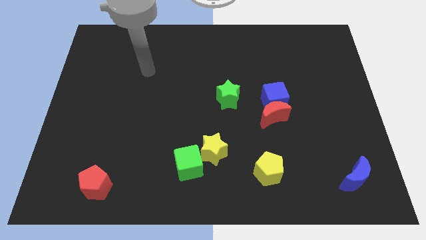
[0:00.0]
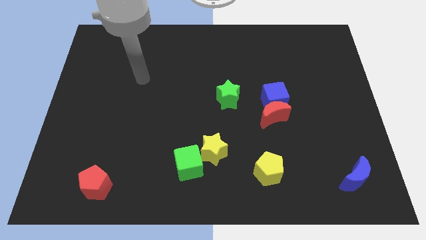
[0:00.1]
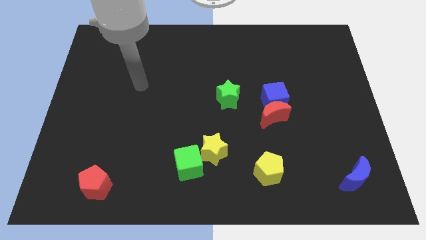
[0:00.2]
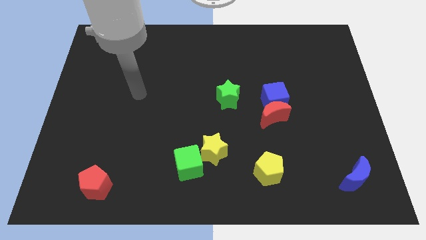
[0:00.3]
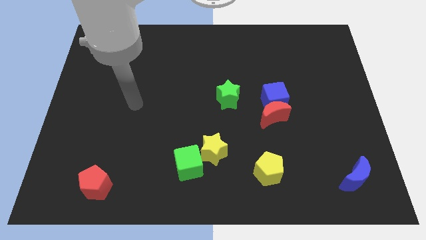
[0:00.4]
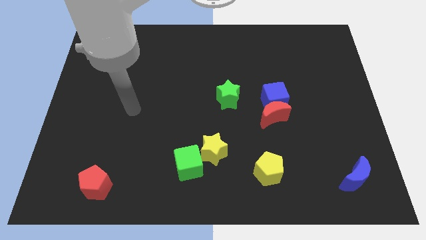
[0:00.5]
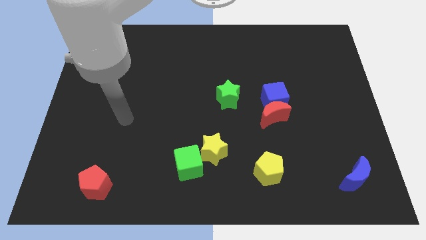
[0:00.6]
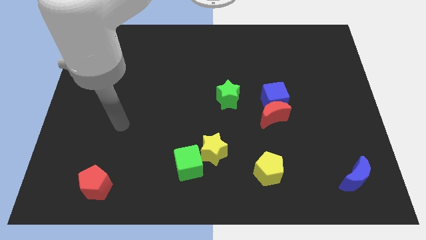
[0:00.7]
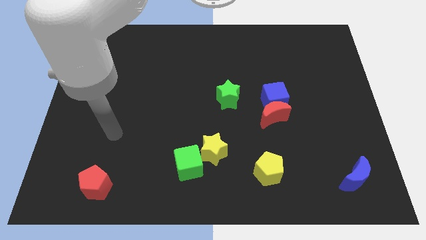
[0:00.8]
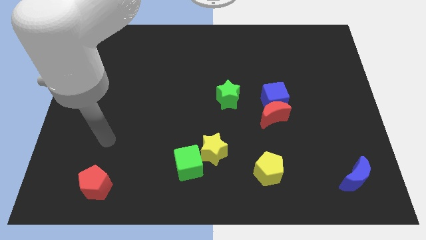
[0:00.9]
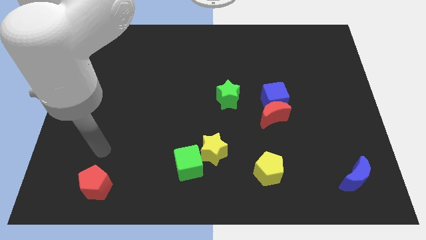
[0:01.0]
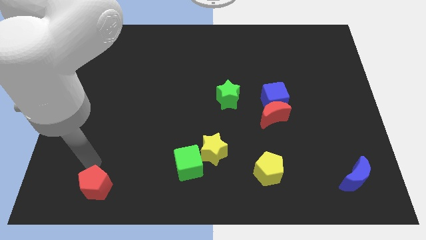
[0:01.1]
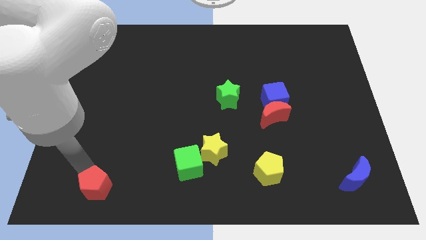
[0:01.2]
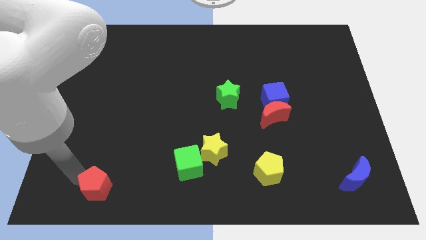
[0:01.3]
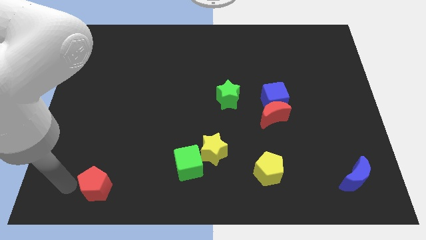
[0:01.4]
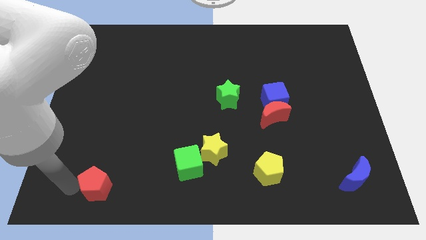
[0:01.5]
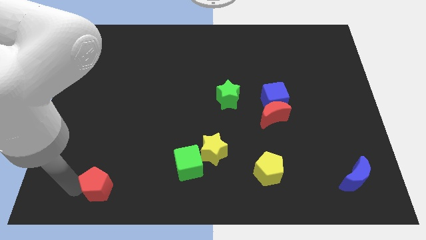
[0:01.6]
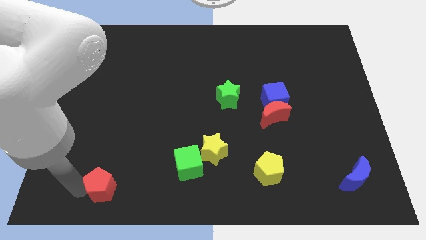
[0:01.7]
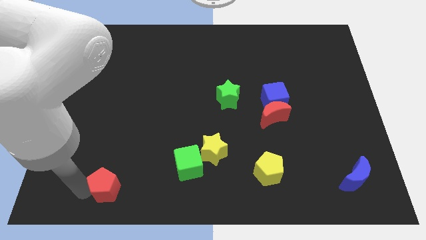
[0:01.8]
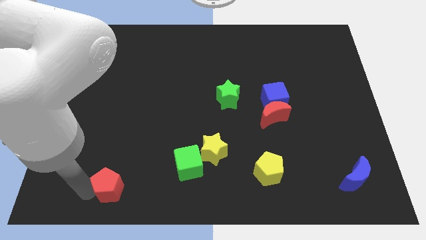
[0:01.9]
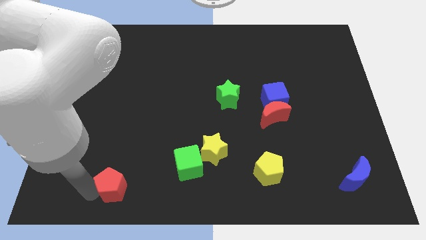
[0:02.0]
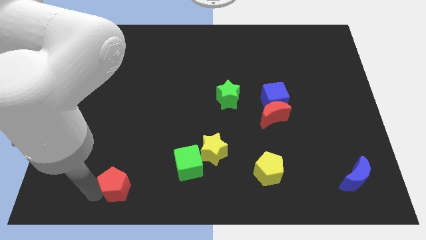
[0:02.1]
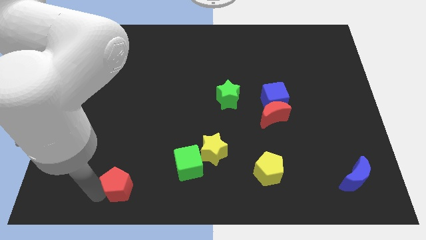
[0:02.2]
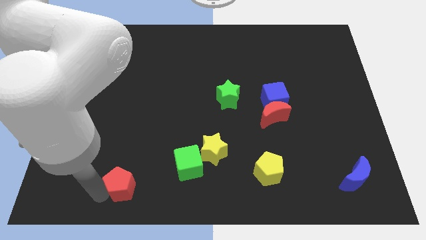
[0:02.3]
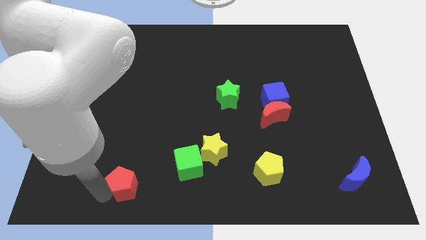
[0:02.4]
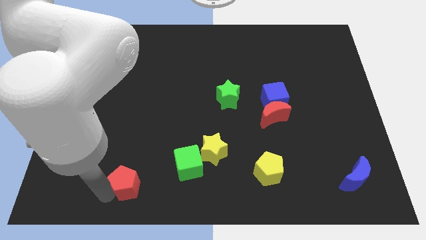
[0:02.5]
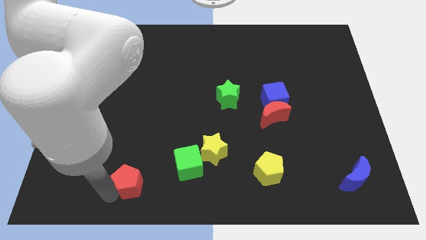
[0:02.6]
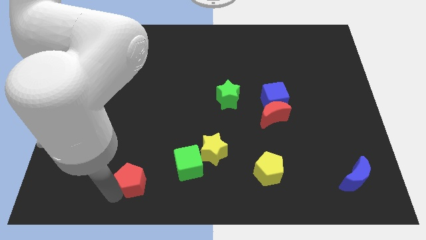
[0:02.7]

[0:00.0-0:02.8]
push the red pentagon right slightly

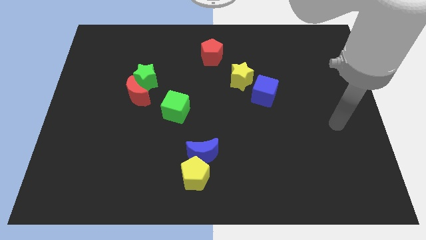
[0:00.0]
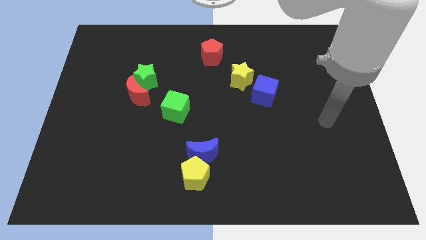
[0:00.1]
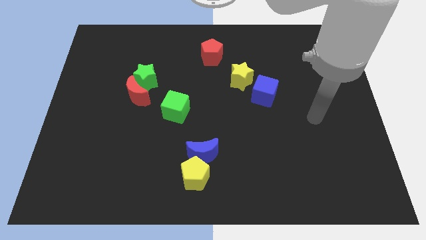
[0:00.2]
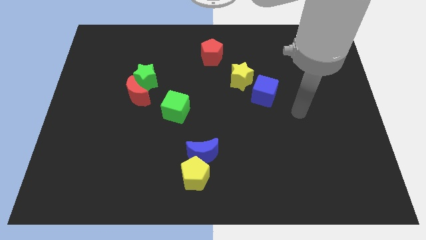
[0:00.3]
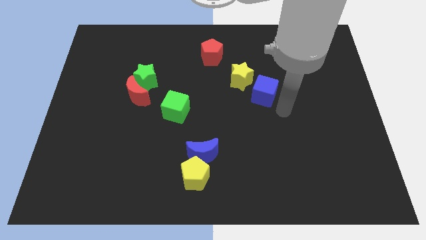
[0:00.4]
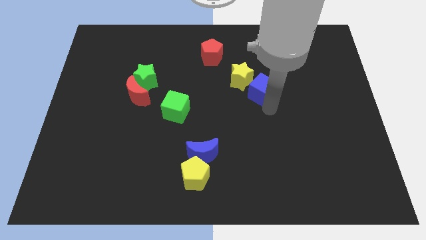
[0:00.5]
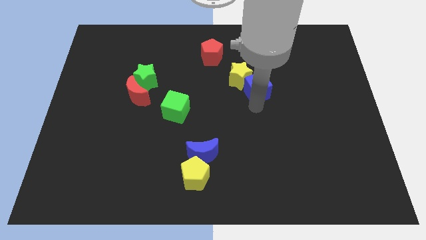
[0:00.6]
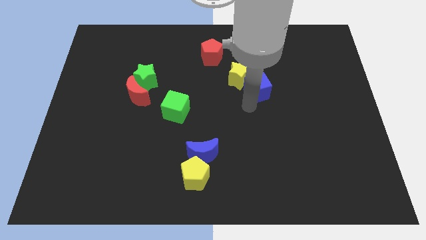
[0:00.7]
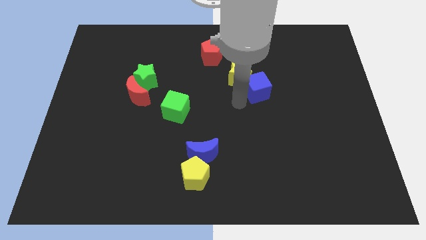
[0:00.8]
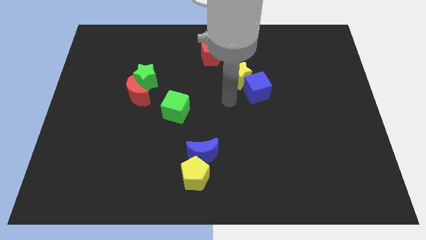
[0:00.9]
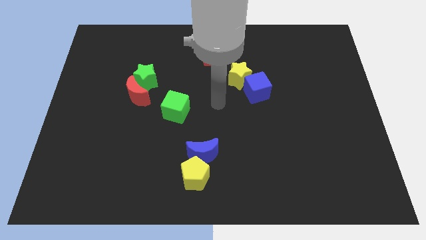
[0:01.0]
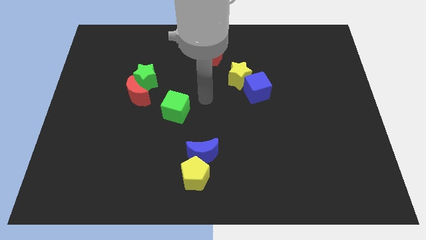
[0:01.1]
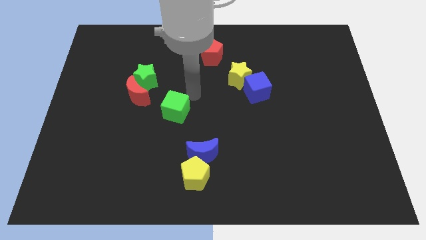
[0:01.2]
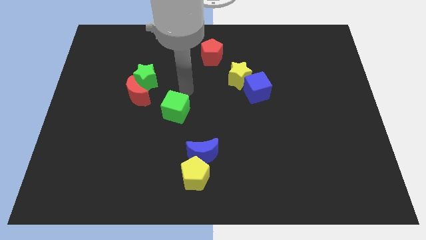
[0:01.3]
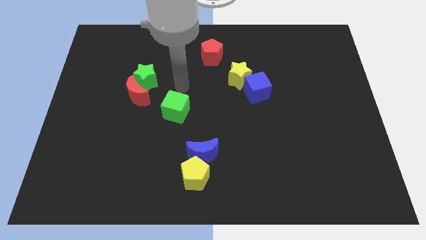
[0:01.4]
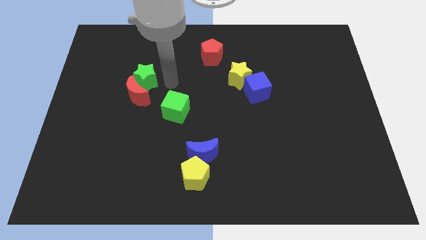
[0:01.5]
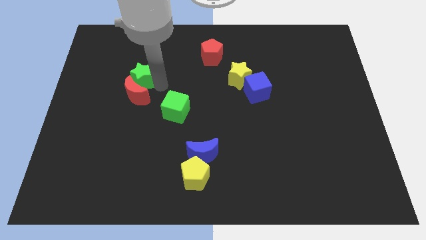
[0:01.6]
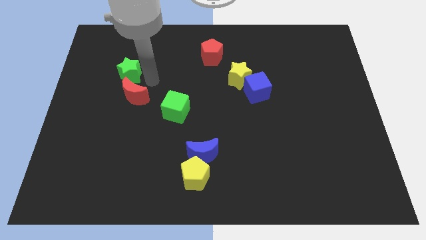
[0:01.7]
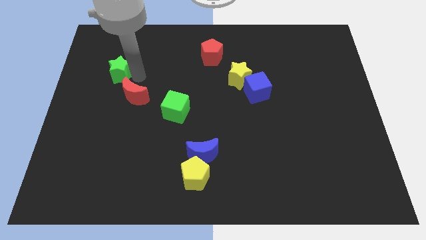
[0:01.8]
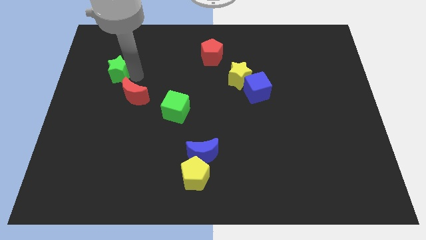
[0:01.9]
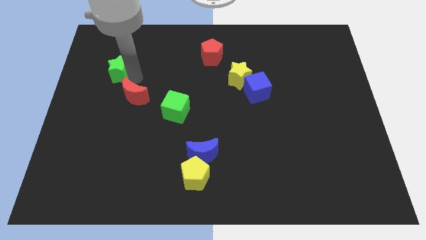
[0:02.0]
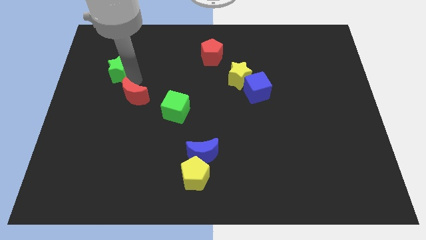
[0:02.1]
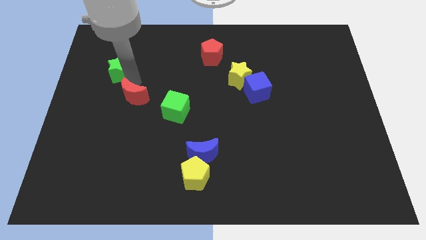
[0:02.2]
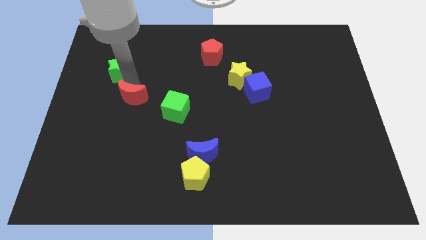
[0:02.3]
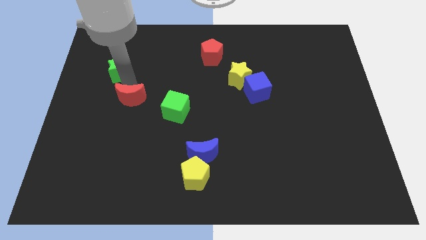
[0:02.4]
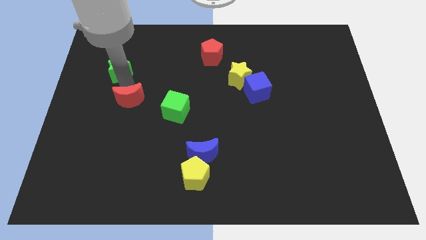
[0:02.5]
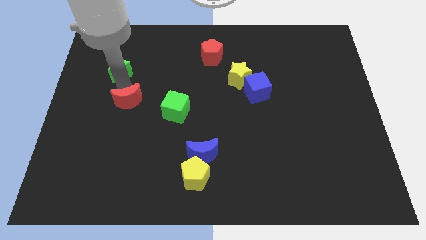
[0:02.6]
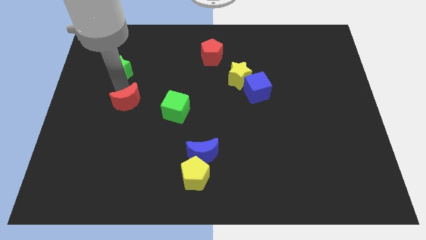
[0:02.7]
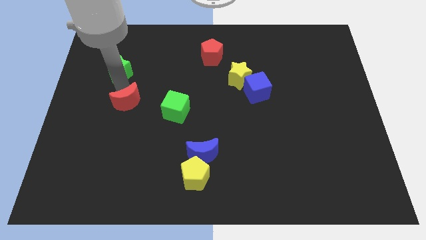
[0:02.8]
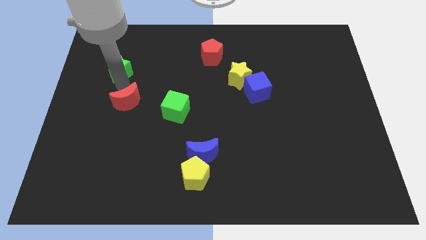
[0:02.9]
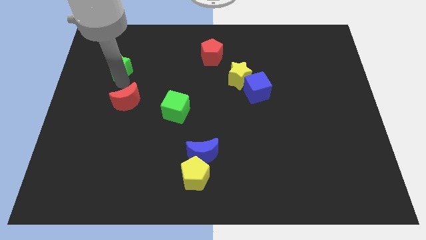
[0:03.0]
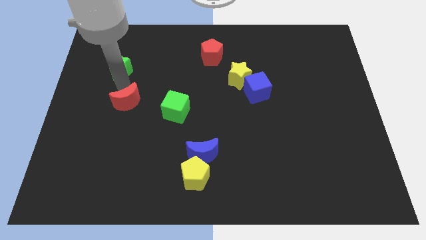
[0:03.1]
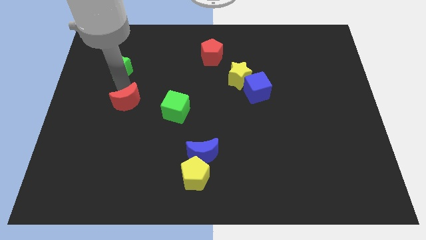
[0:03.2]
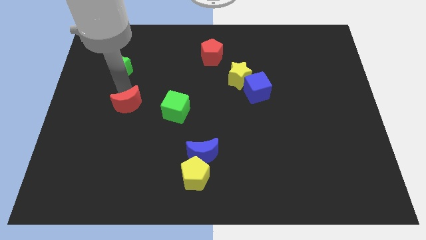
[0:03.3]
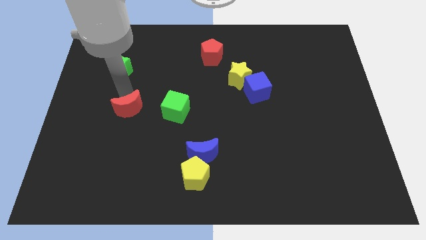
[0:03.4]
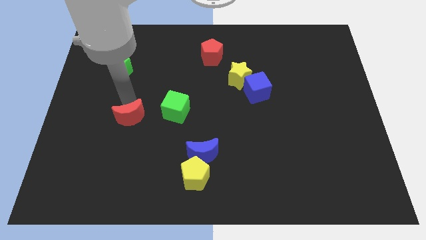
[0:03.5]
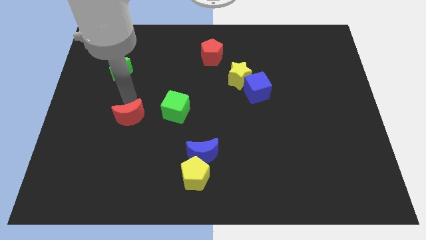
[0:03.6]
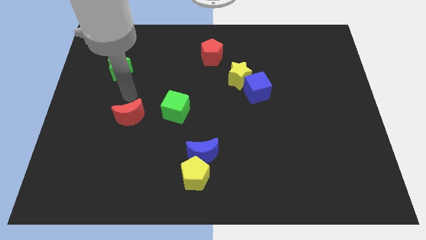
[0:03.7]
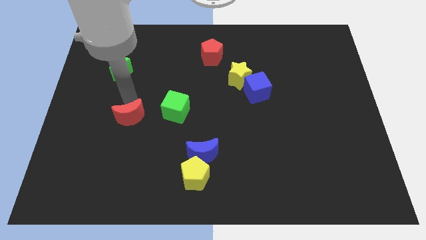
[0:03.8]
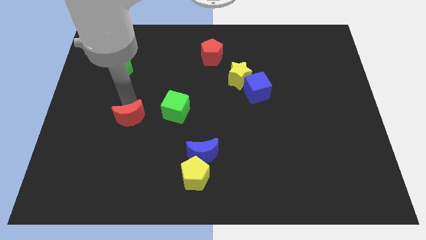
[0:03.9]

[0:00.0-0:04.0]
push the red moon a bit downwards

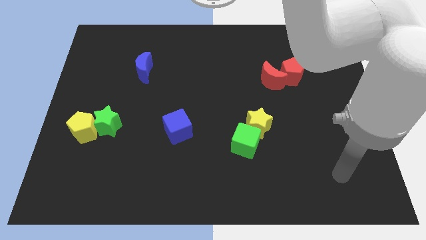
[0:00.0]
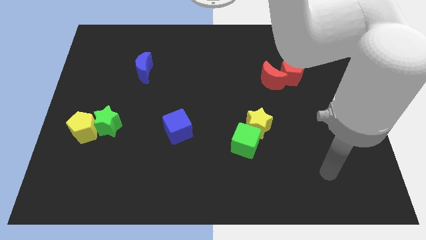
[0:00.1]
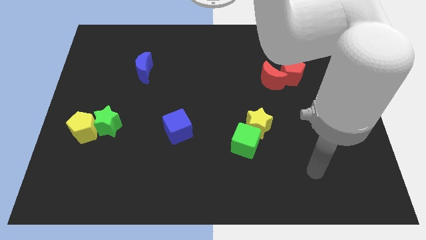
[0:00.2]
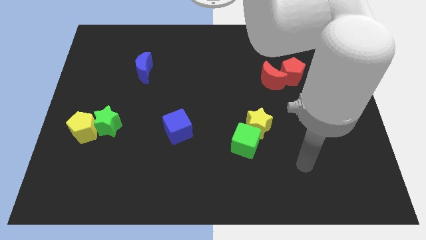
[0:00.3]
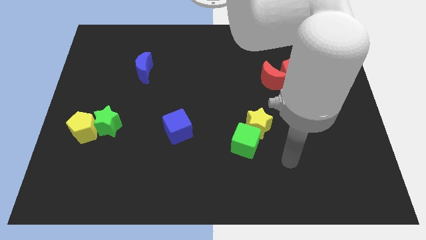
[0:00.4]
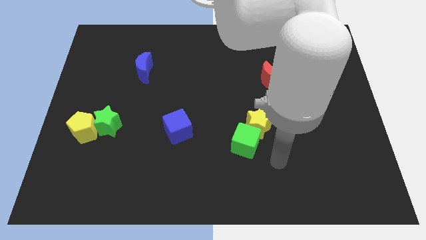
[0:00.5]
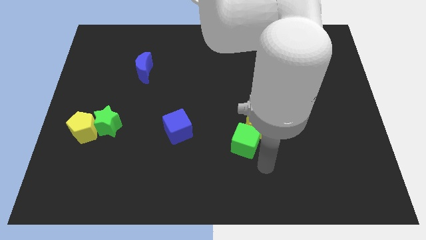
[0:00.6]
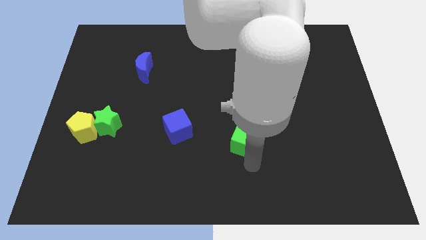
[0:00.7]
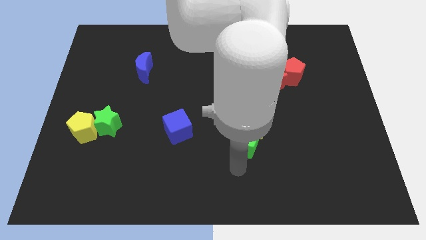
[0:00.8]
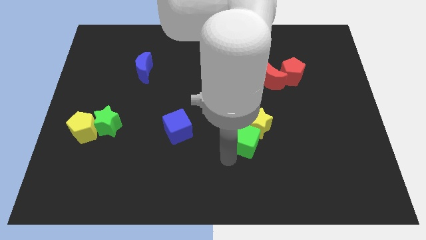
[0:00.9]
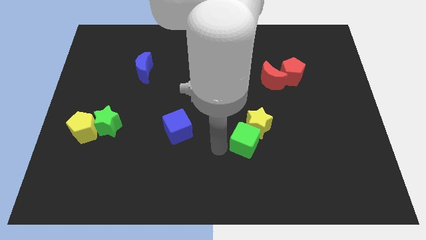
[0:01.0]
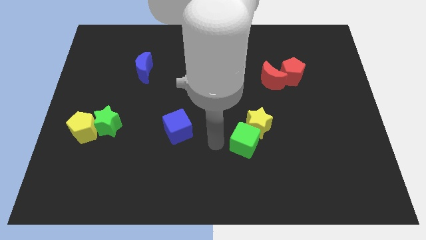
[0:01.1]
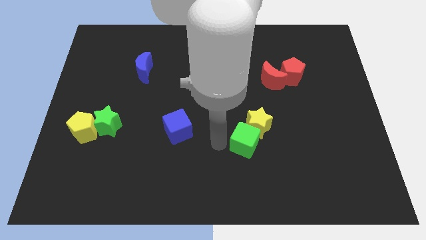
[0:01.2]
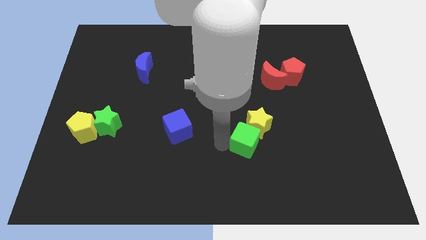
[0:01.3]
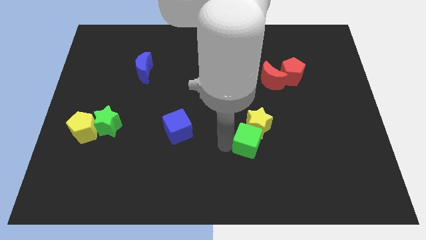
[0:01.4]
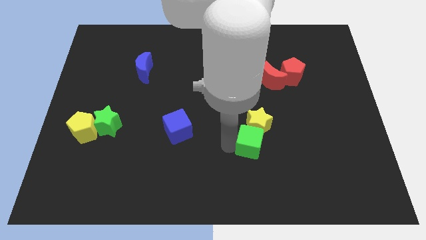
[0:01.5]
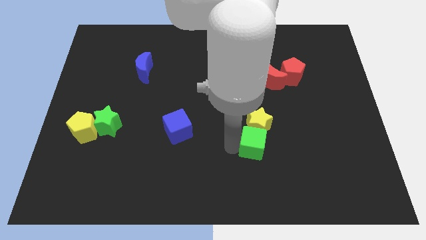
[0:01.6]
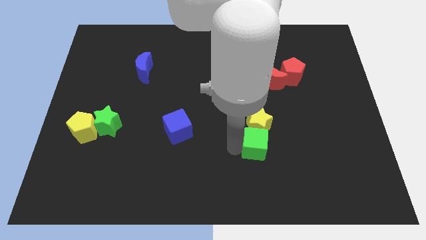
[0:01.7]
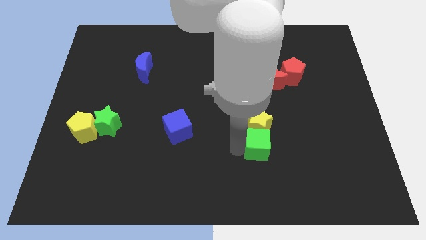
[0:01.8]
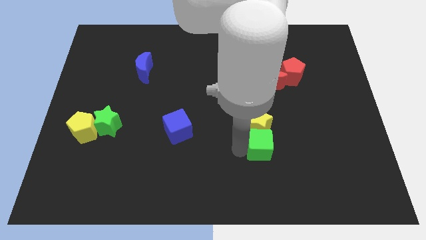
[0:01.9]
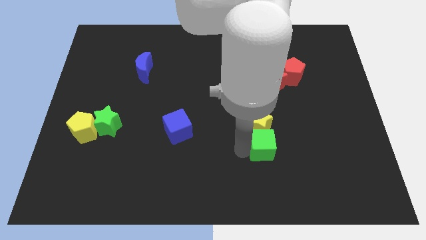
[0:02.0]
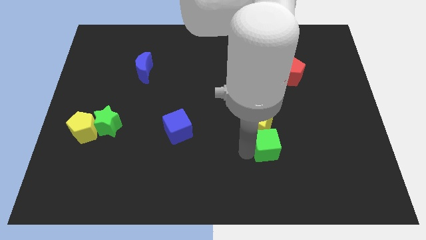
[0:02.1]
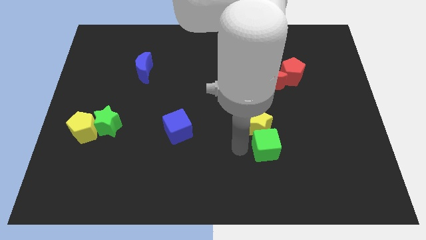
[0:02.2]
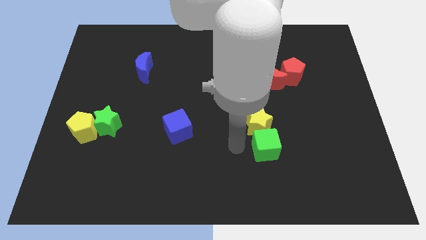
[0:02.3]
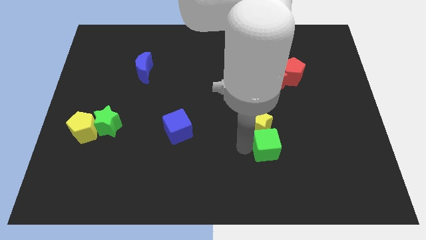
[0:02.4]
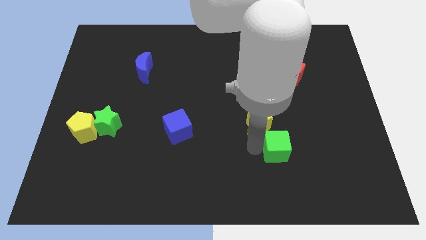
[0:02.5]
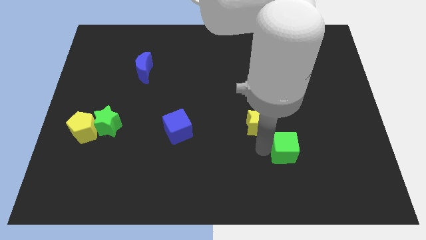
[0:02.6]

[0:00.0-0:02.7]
push the green cube right somewhat
